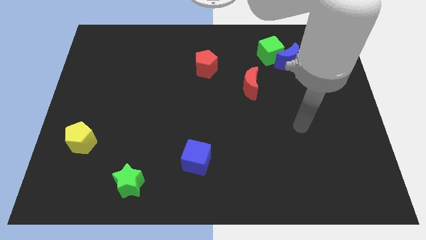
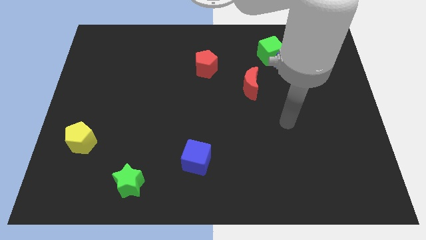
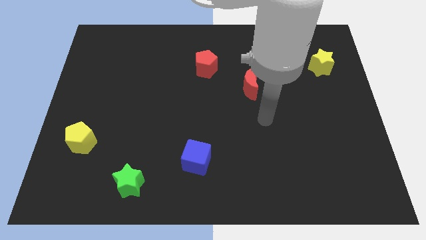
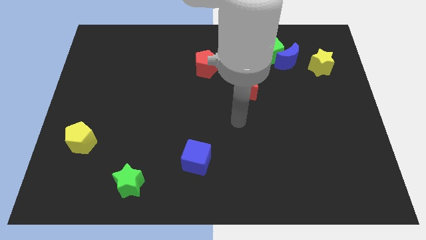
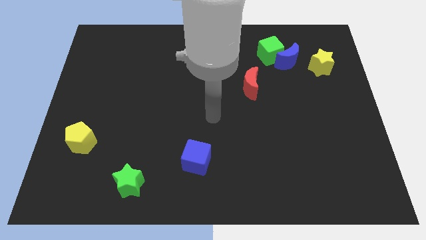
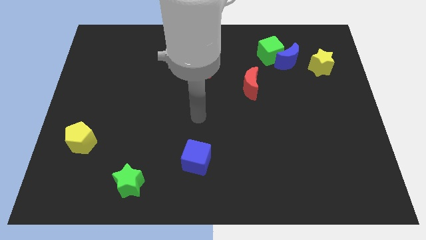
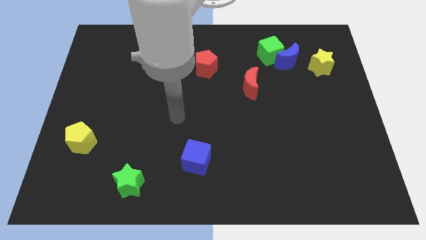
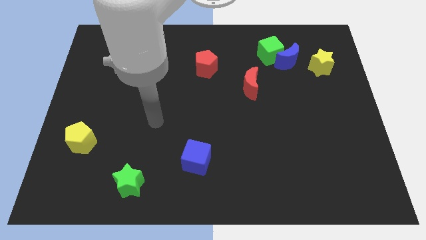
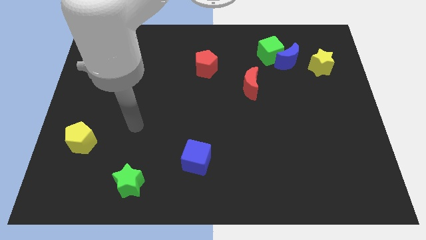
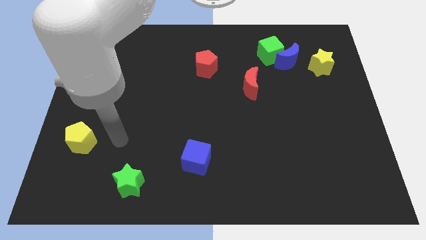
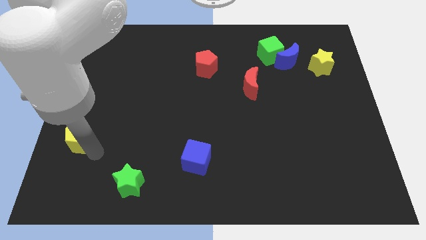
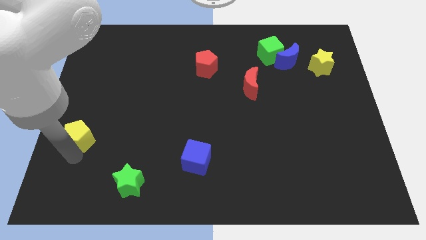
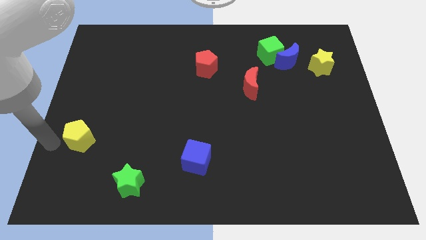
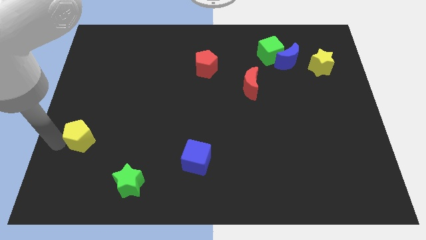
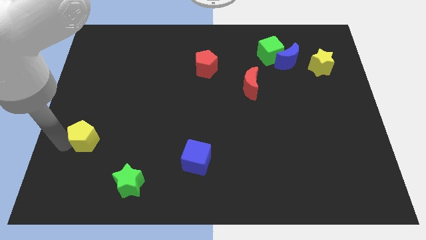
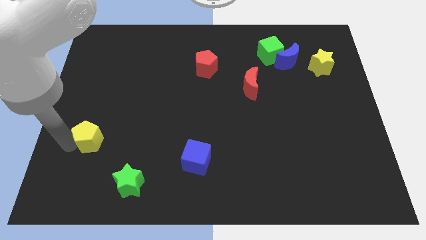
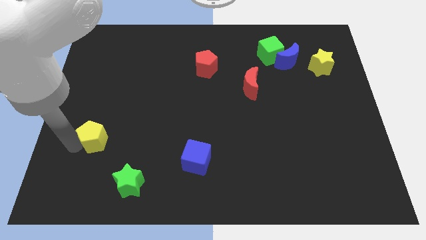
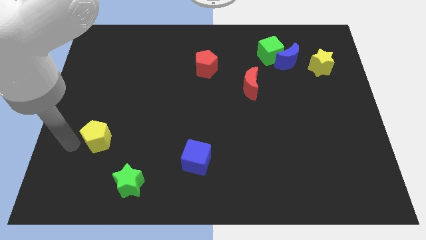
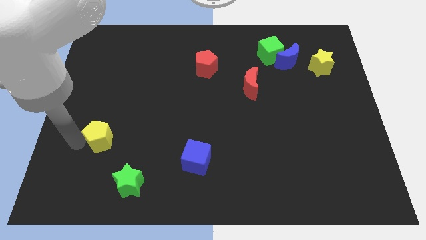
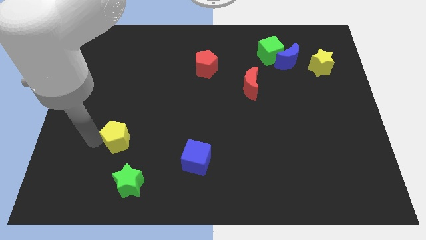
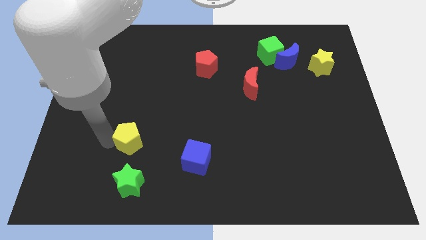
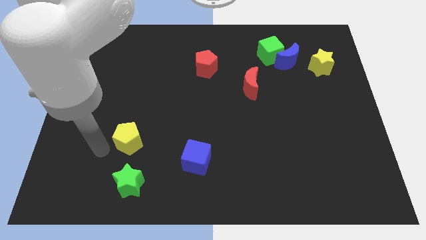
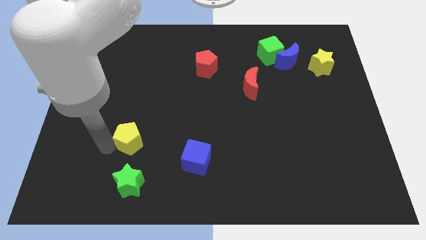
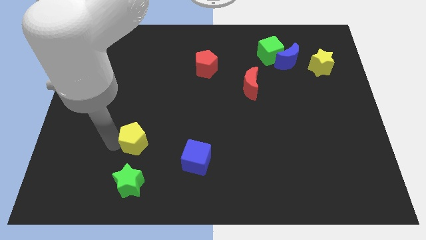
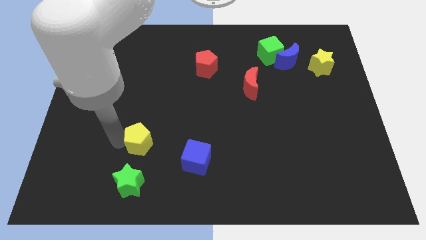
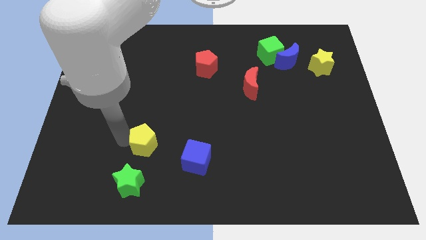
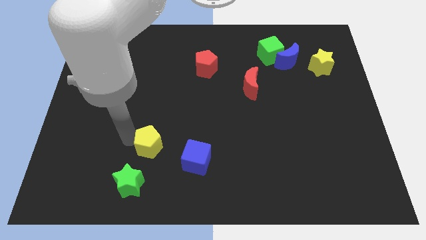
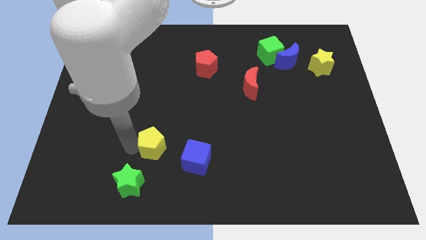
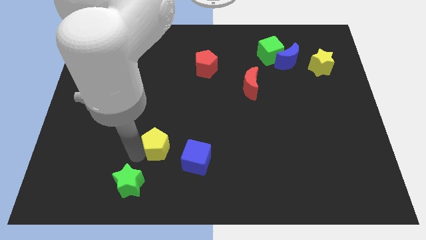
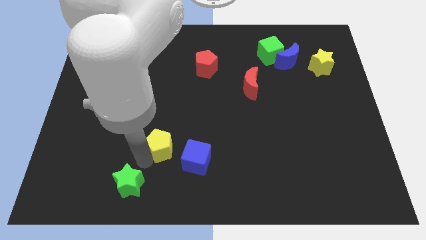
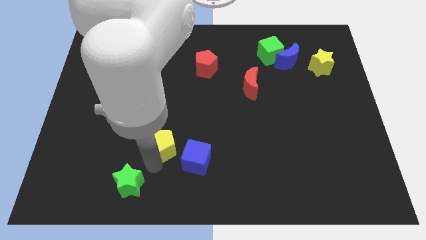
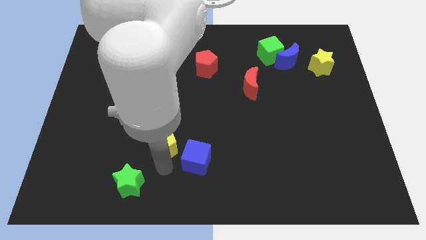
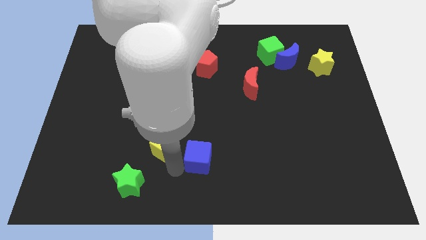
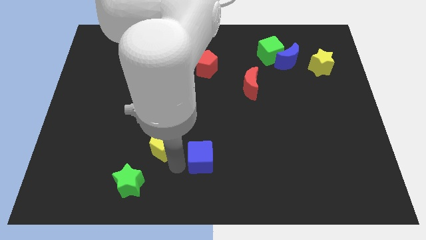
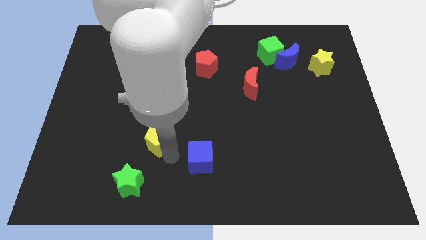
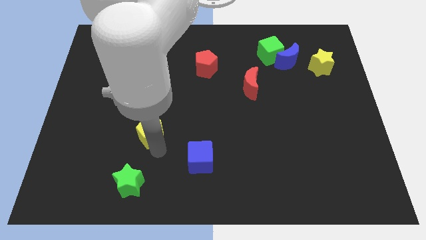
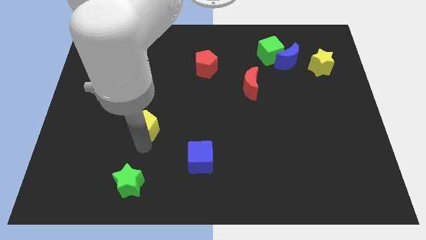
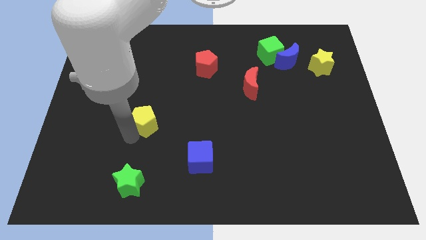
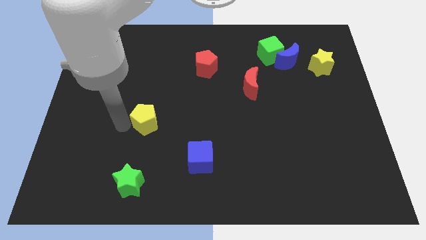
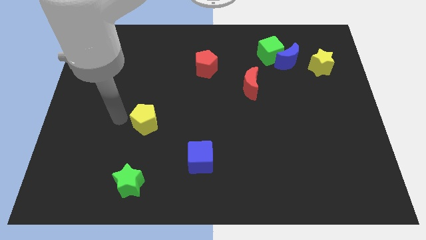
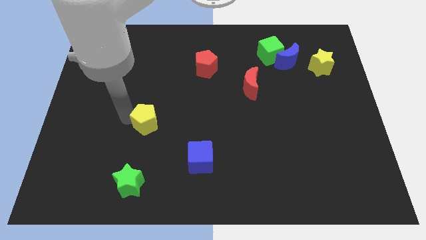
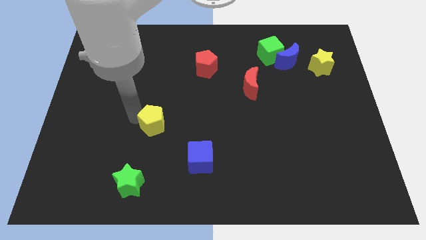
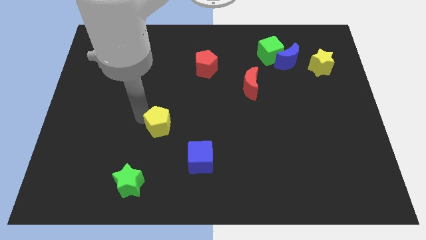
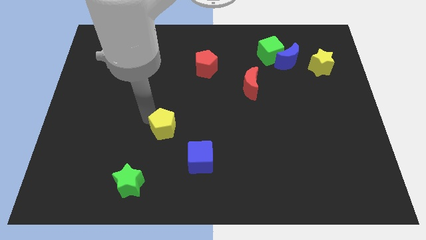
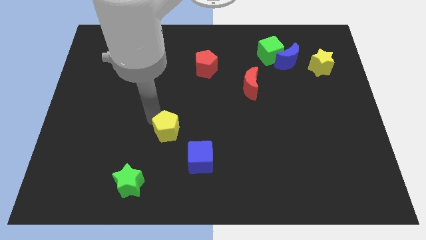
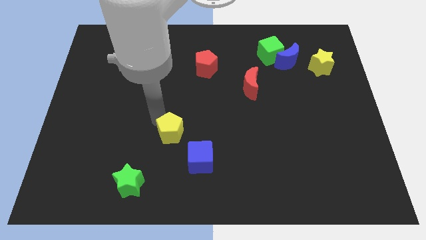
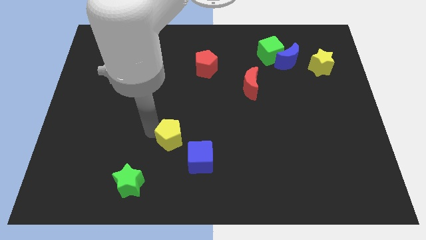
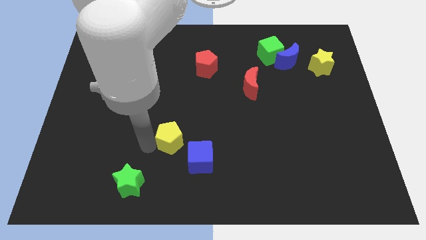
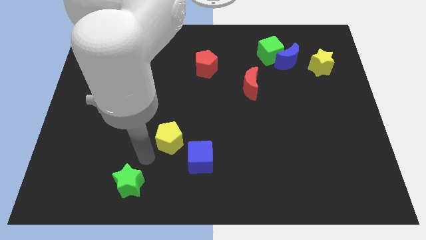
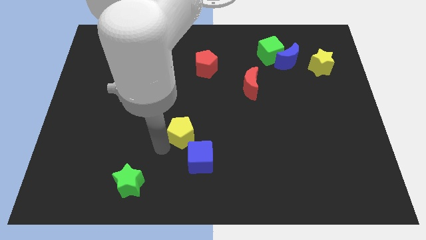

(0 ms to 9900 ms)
push the yellow pentagon above the blue cube

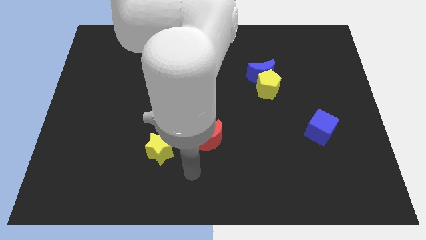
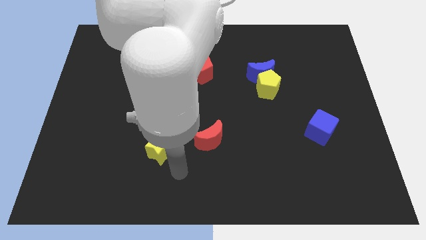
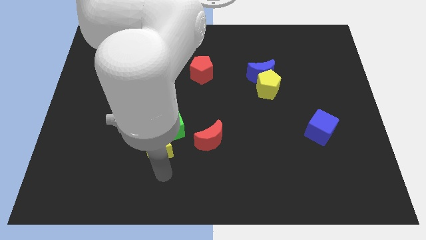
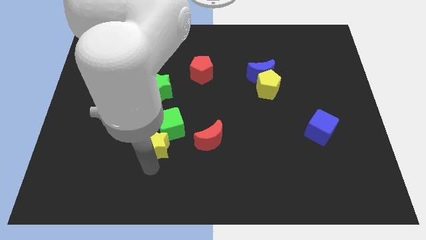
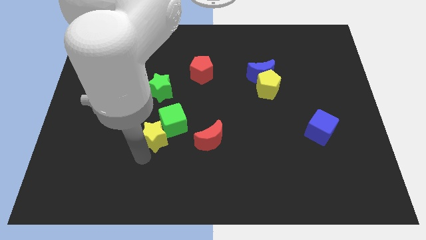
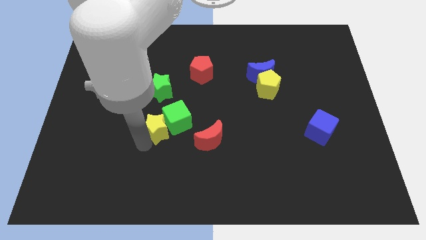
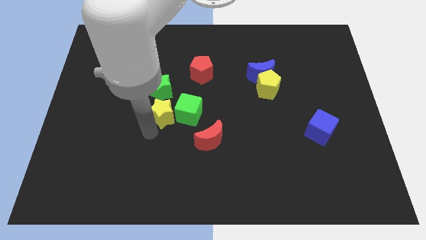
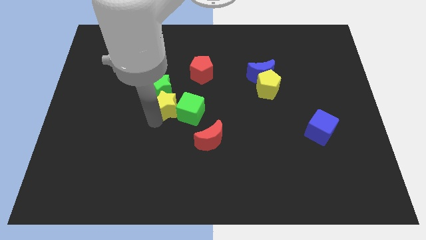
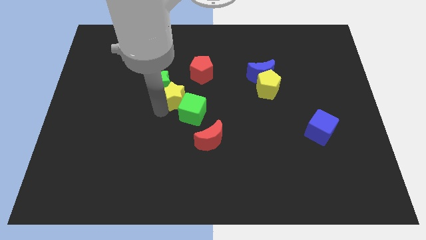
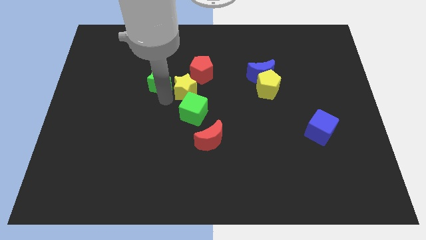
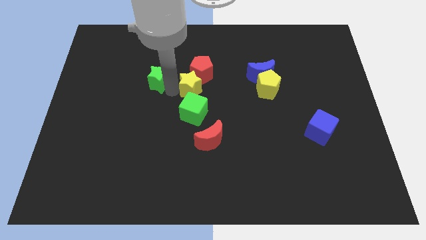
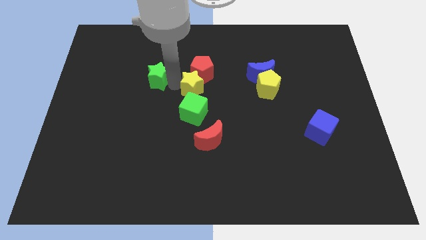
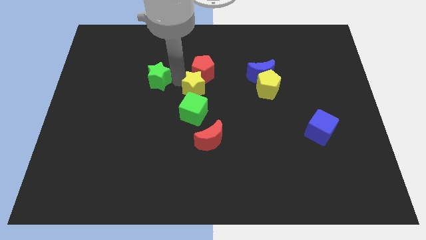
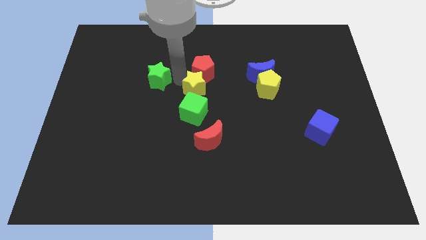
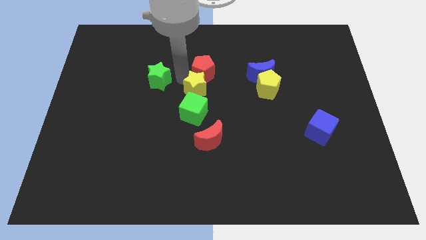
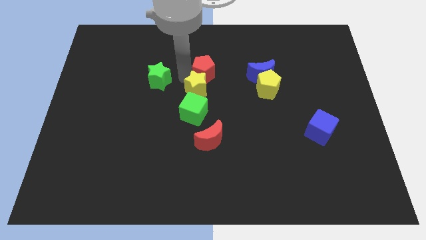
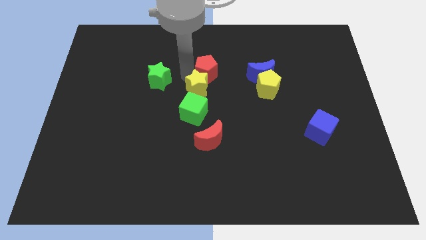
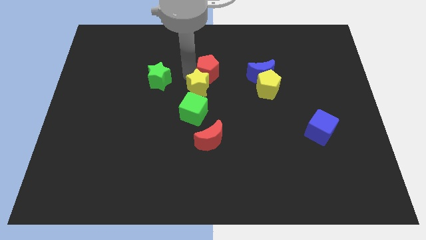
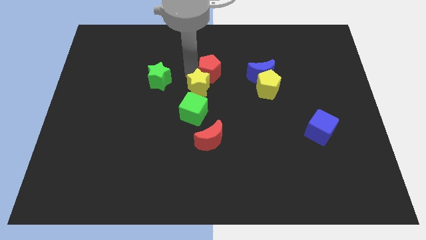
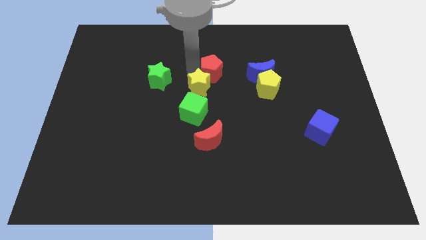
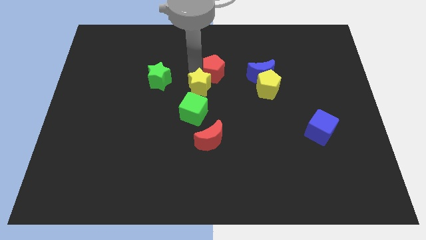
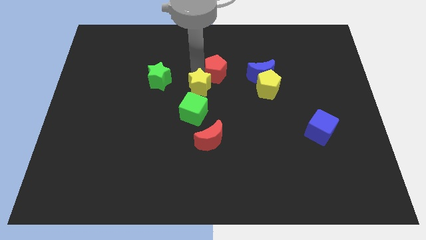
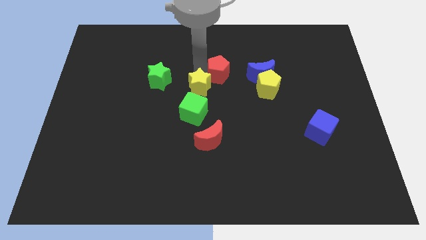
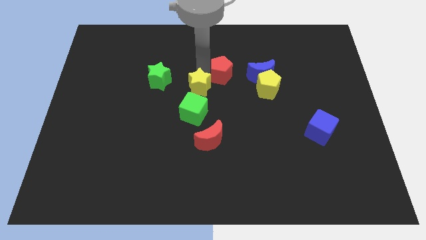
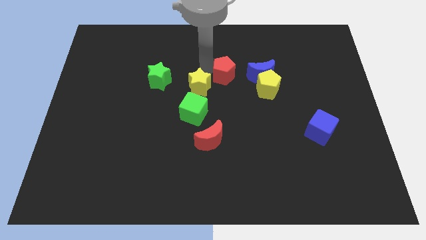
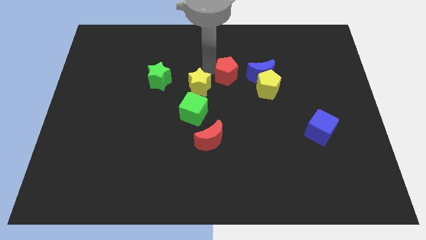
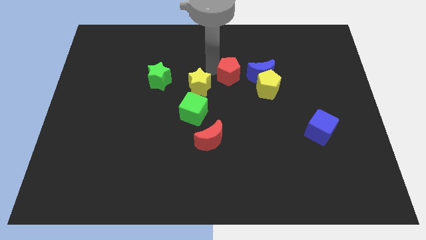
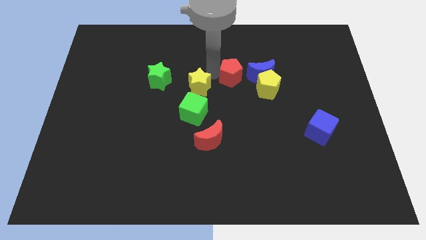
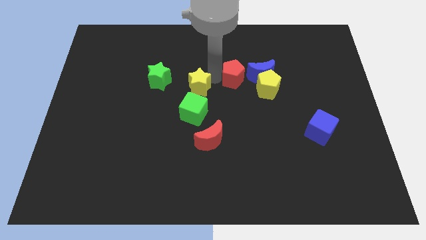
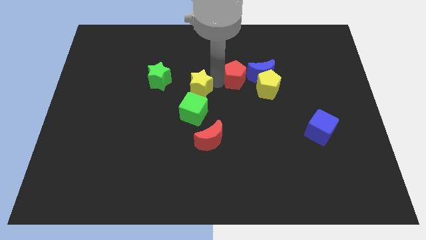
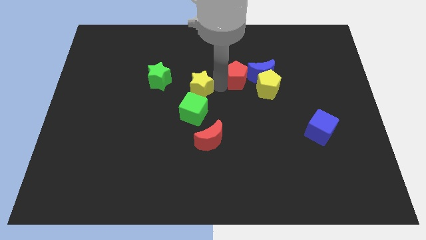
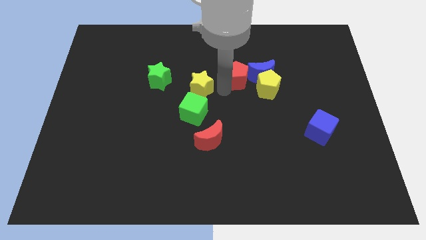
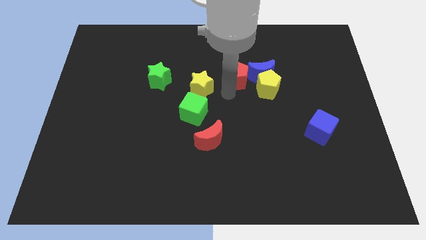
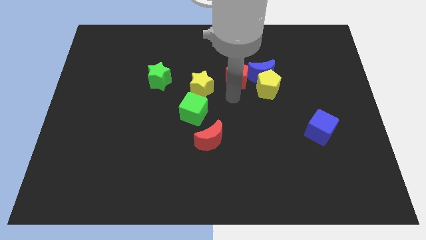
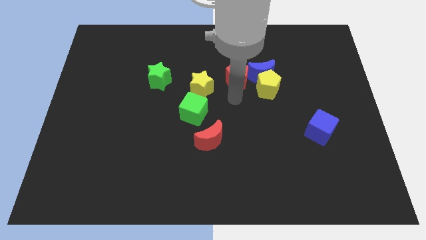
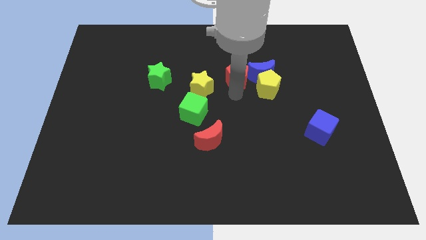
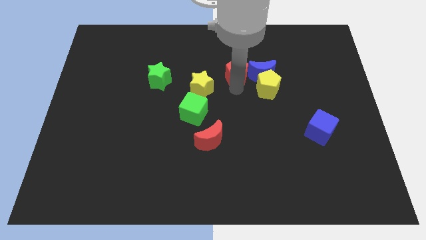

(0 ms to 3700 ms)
put the red pentagon to the top left side of the blue moon
